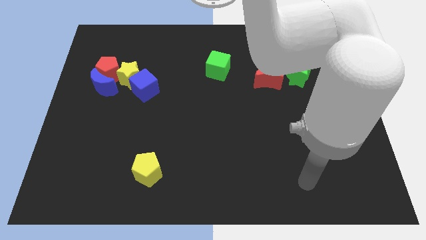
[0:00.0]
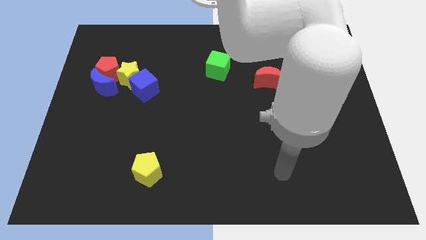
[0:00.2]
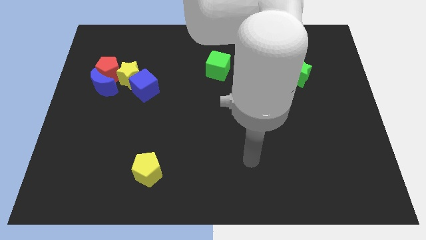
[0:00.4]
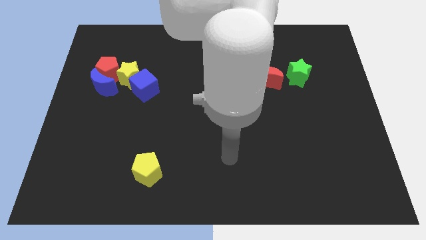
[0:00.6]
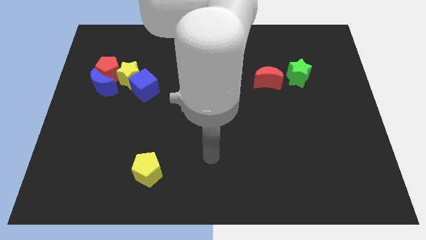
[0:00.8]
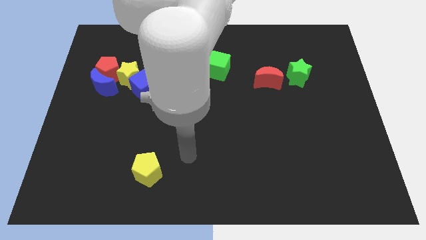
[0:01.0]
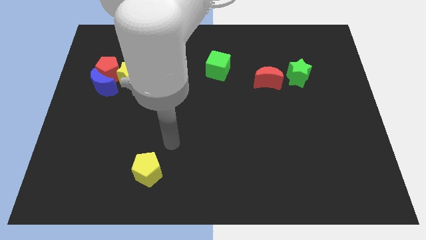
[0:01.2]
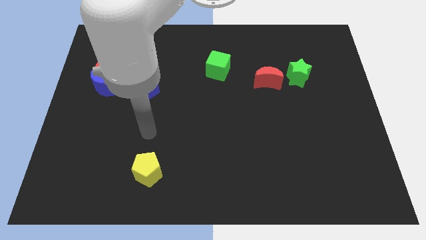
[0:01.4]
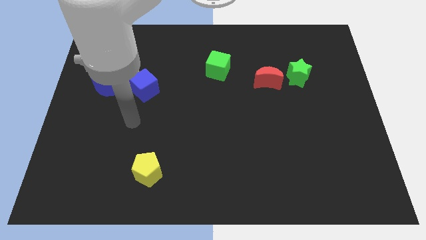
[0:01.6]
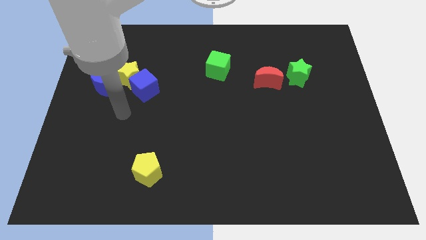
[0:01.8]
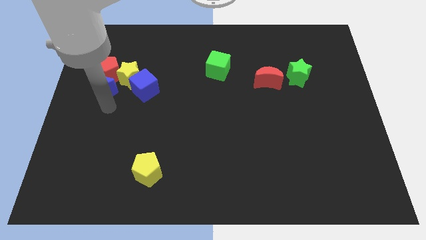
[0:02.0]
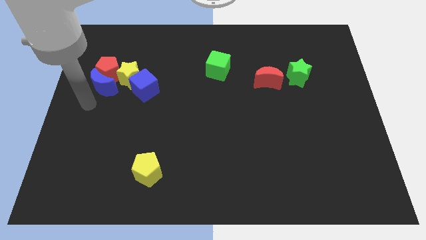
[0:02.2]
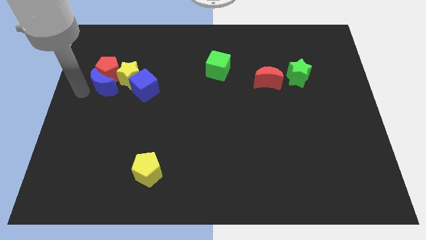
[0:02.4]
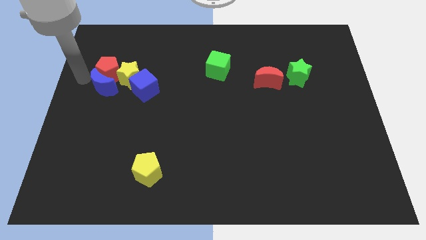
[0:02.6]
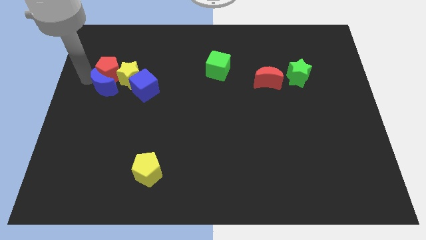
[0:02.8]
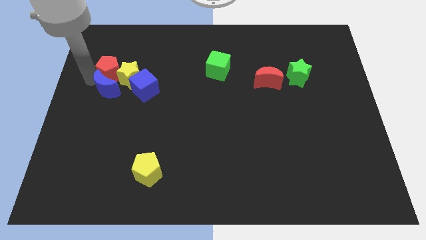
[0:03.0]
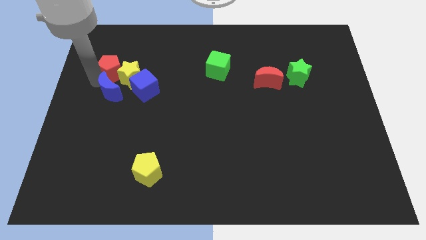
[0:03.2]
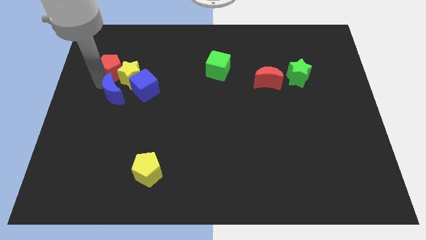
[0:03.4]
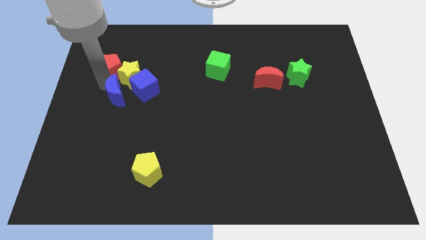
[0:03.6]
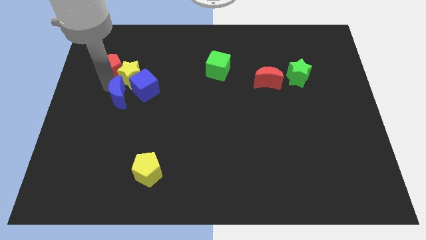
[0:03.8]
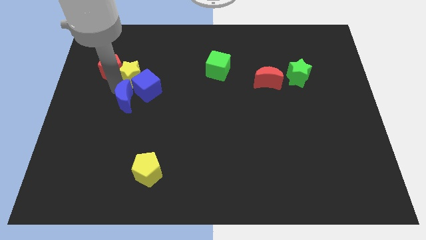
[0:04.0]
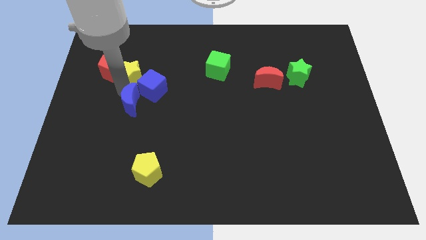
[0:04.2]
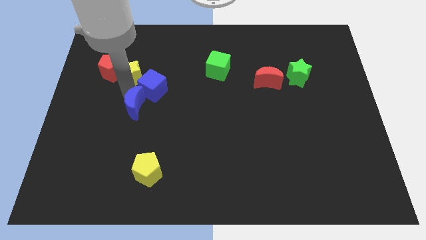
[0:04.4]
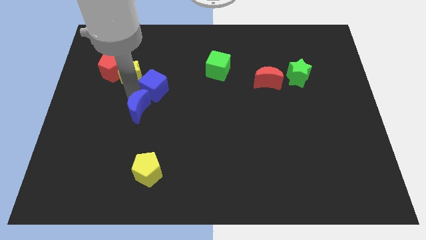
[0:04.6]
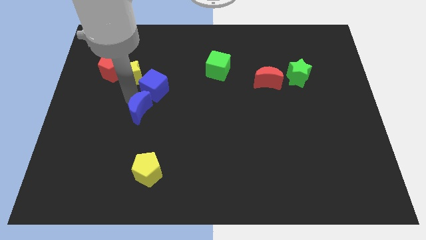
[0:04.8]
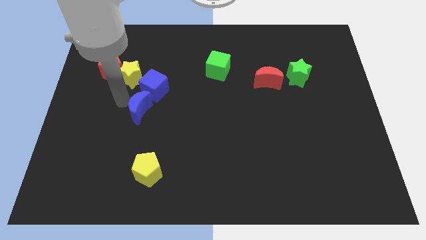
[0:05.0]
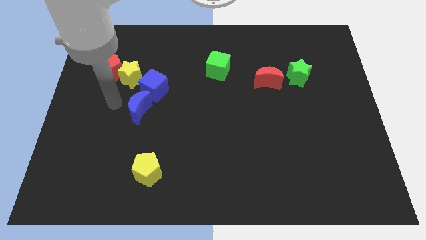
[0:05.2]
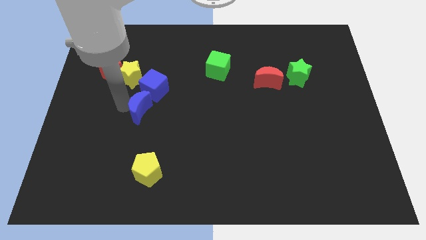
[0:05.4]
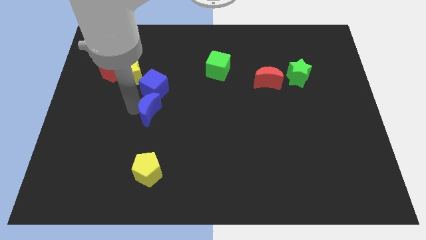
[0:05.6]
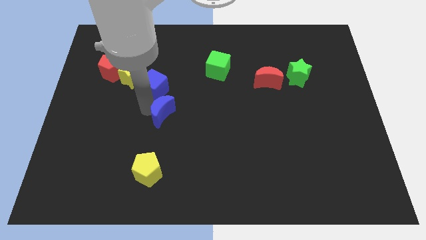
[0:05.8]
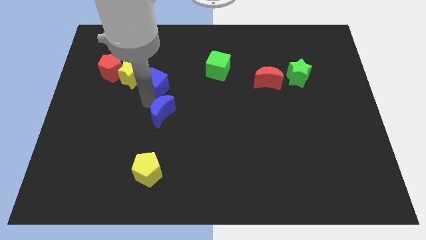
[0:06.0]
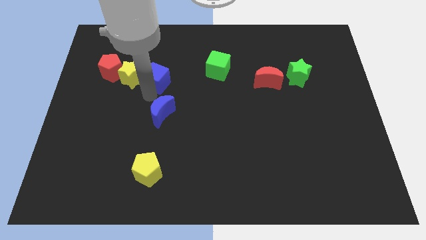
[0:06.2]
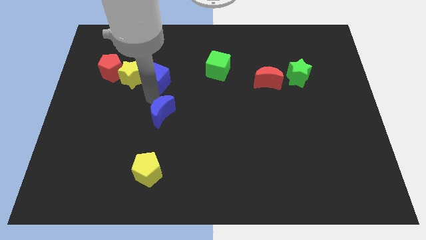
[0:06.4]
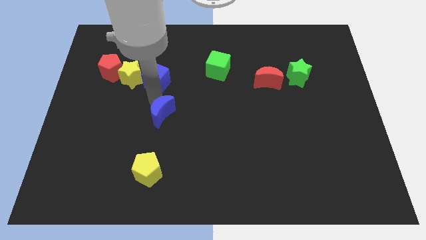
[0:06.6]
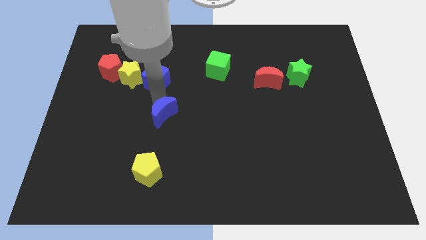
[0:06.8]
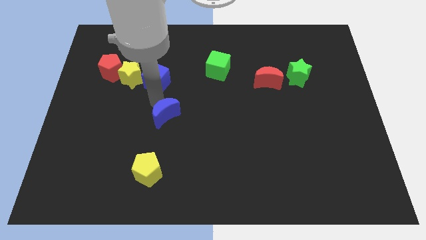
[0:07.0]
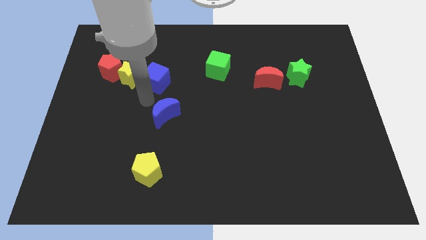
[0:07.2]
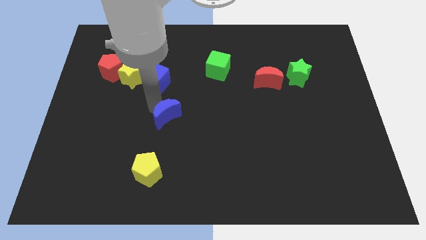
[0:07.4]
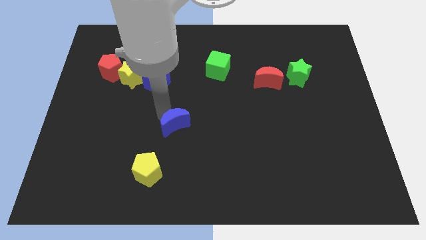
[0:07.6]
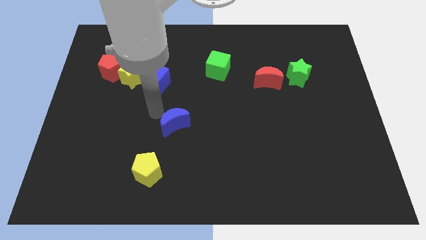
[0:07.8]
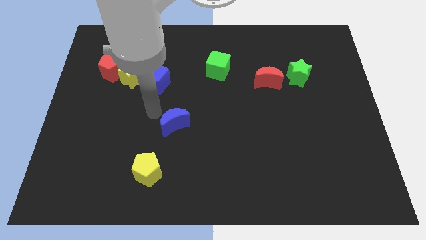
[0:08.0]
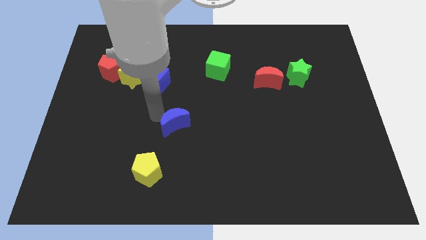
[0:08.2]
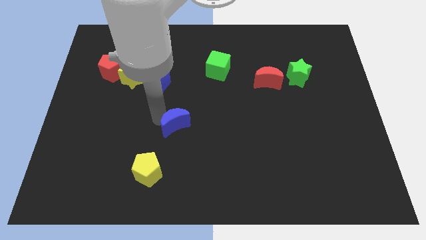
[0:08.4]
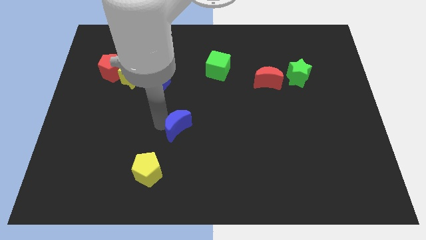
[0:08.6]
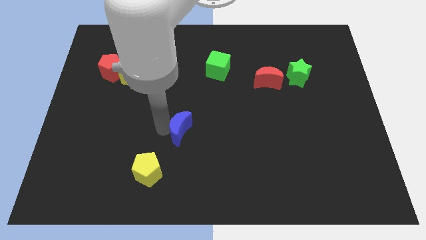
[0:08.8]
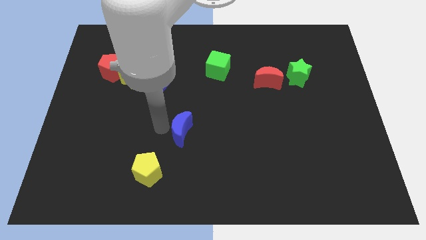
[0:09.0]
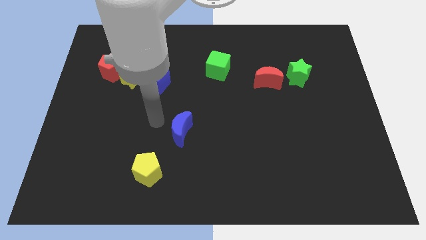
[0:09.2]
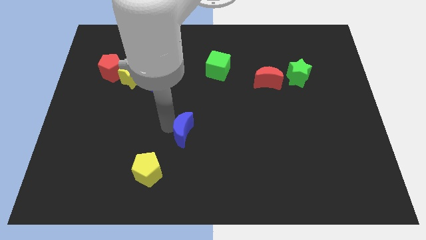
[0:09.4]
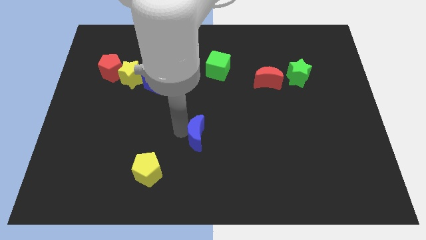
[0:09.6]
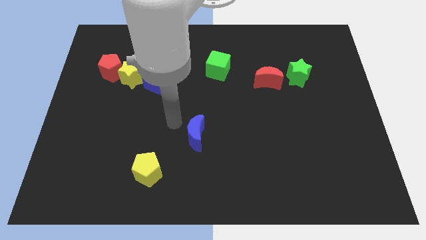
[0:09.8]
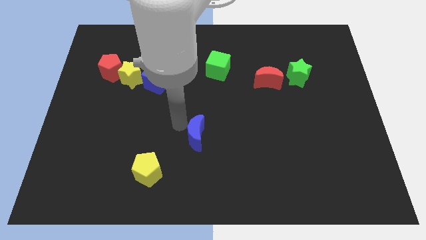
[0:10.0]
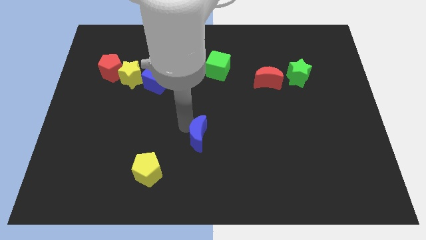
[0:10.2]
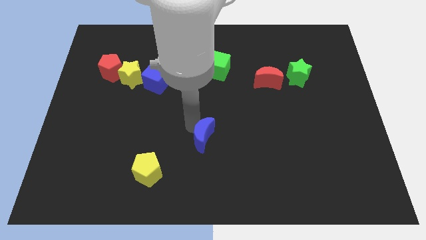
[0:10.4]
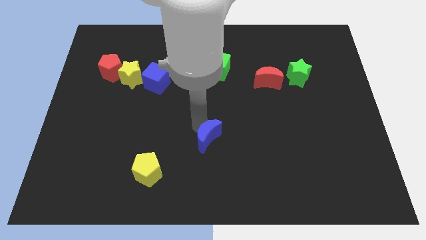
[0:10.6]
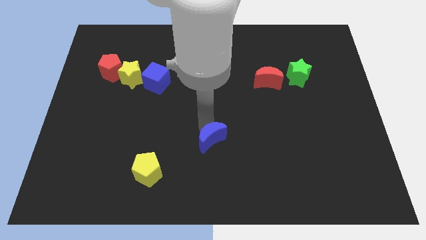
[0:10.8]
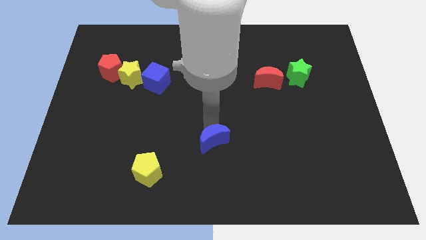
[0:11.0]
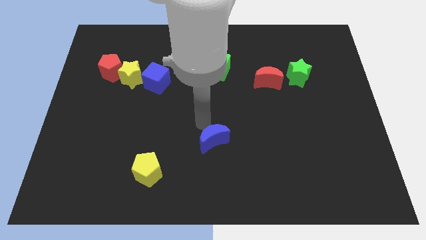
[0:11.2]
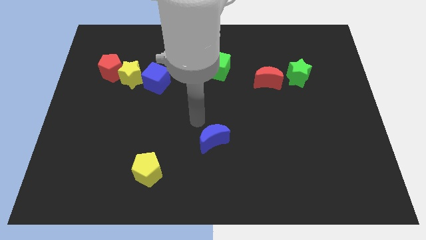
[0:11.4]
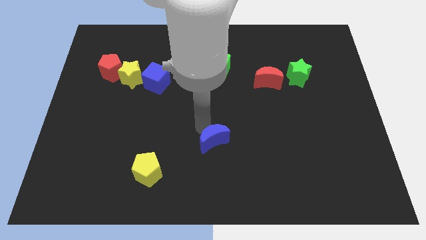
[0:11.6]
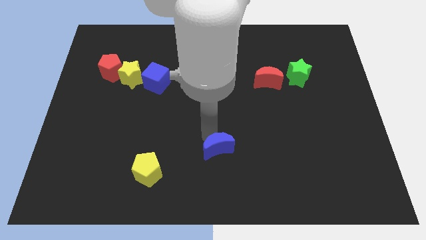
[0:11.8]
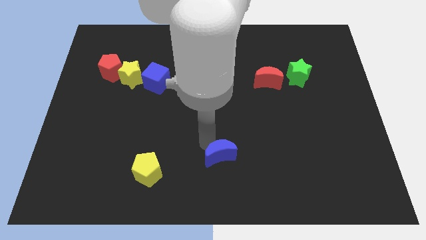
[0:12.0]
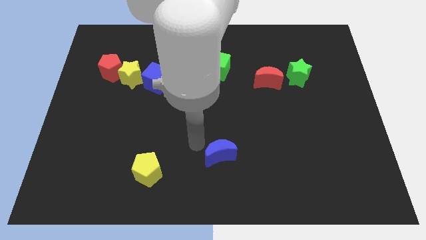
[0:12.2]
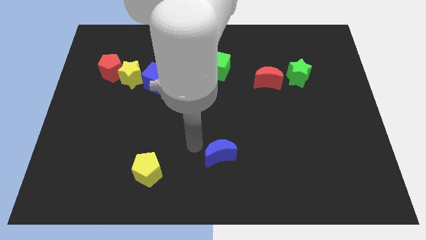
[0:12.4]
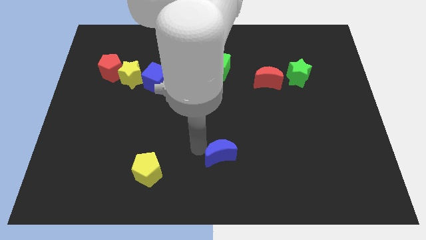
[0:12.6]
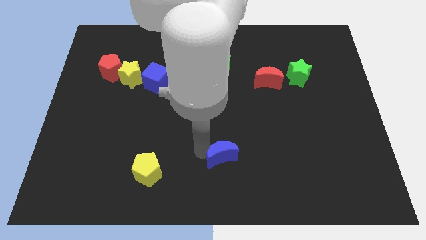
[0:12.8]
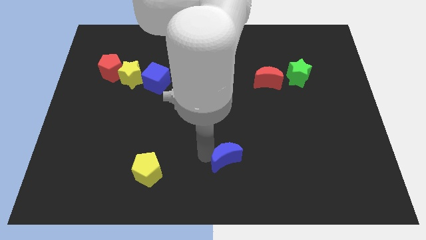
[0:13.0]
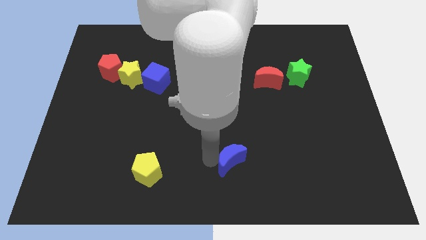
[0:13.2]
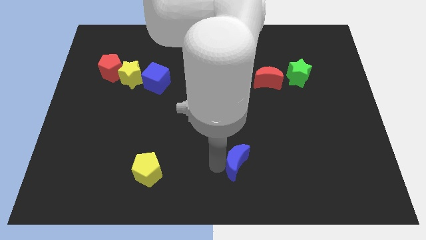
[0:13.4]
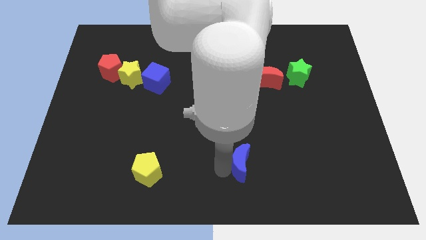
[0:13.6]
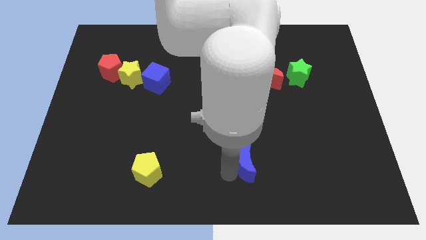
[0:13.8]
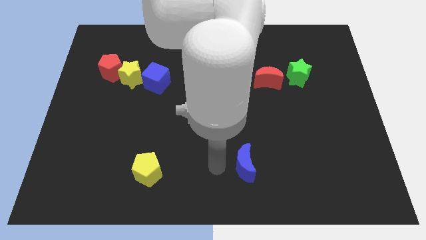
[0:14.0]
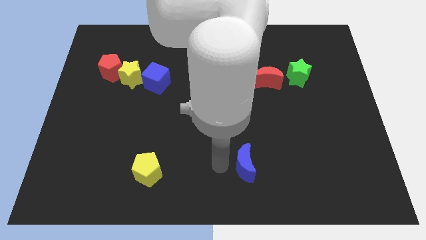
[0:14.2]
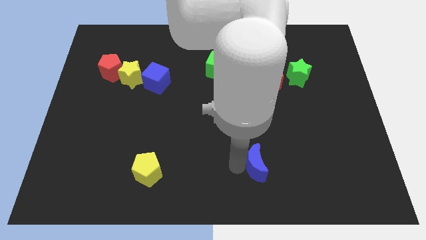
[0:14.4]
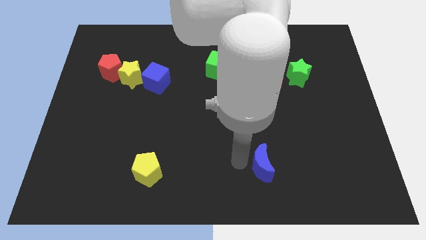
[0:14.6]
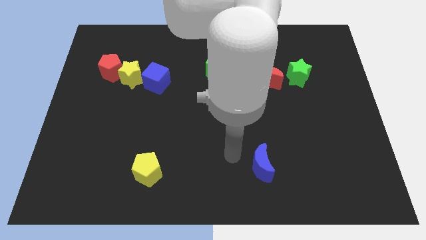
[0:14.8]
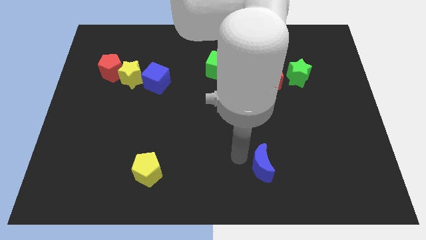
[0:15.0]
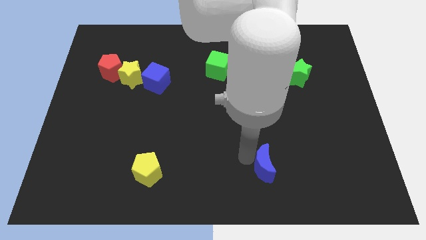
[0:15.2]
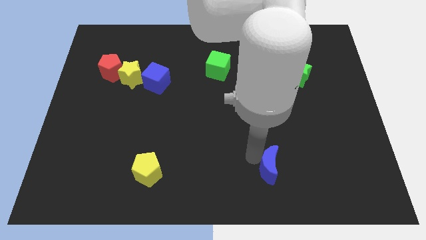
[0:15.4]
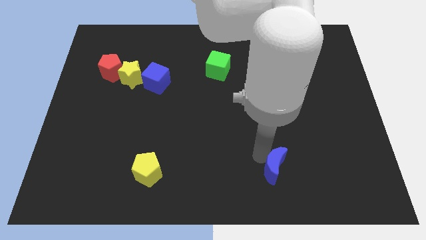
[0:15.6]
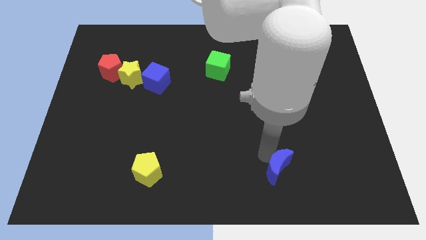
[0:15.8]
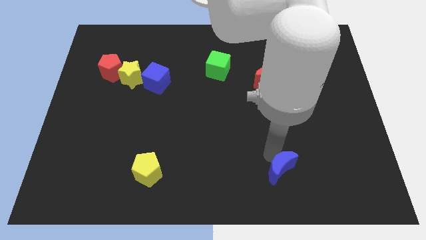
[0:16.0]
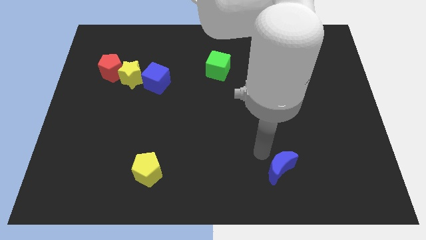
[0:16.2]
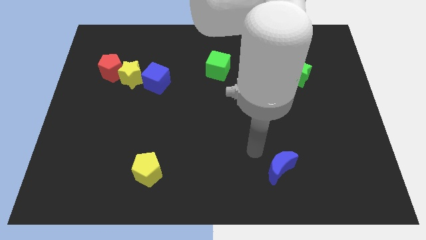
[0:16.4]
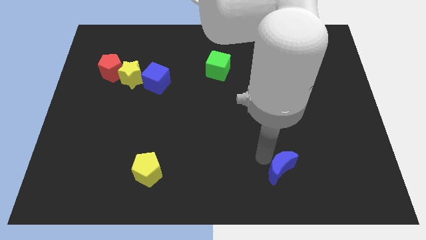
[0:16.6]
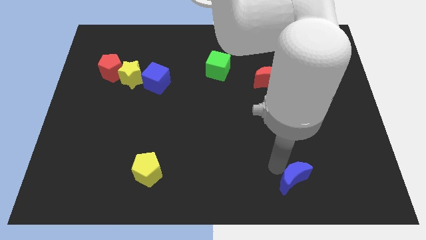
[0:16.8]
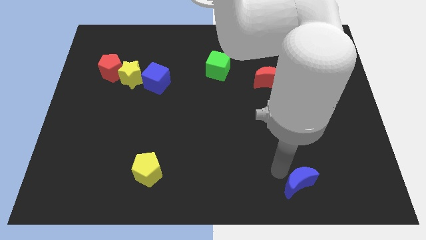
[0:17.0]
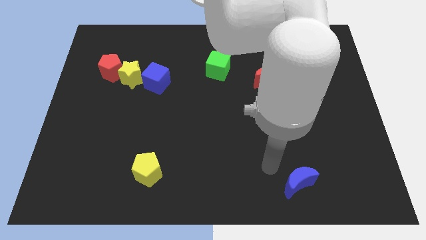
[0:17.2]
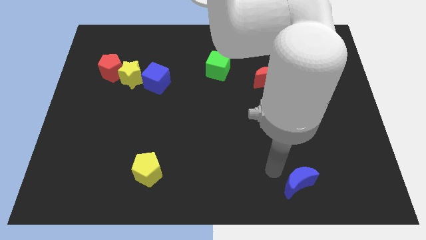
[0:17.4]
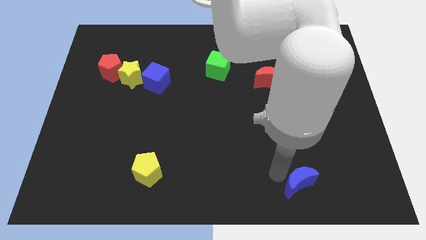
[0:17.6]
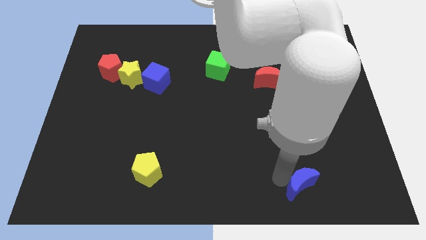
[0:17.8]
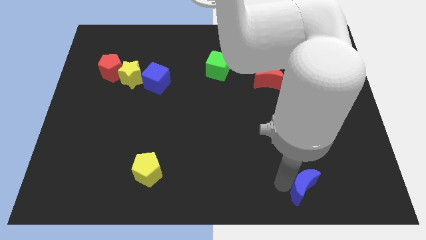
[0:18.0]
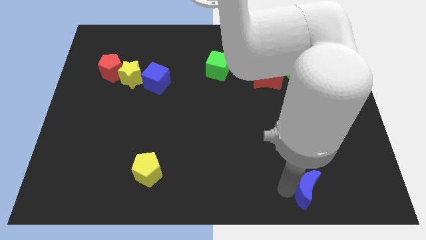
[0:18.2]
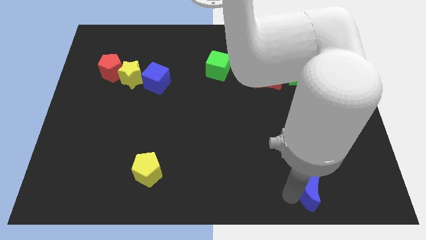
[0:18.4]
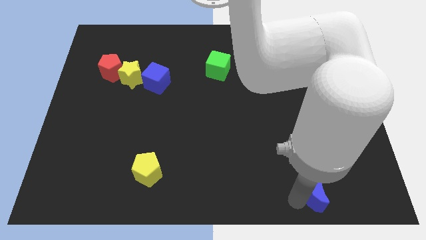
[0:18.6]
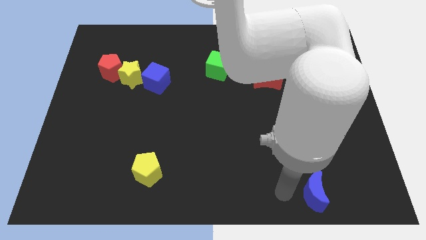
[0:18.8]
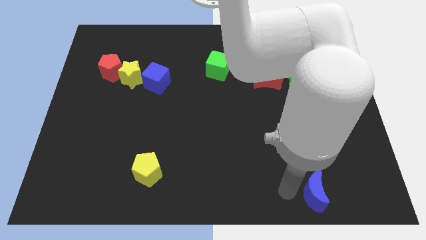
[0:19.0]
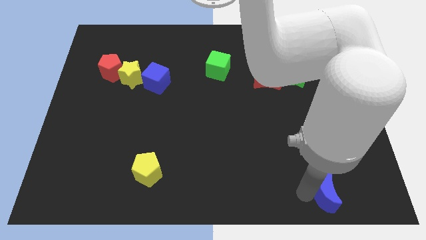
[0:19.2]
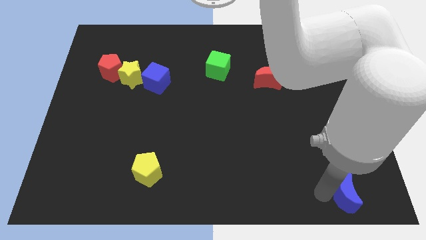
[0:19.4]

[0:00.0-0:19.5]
move the blue moon to the lower right corner
